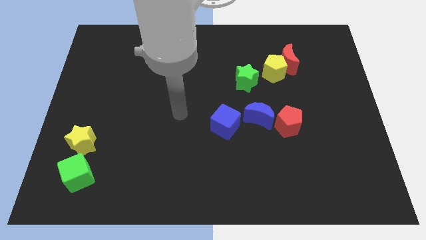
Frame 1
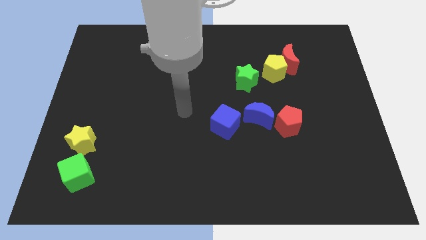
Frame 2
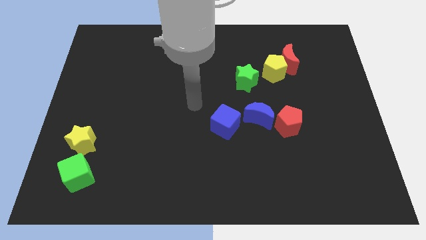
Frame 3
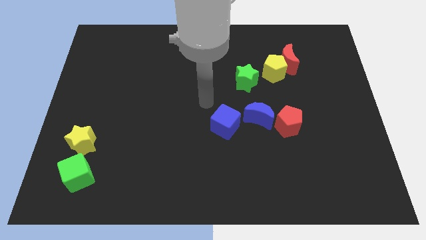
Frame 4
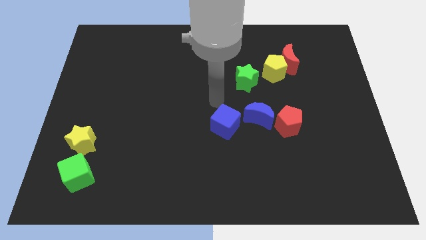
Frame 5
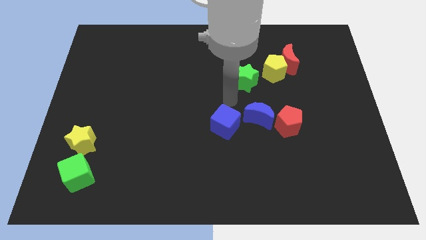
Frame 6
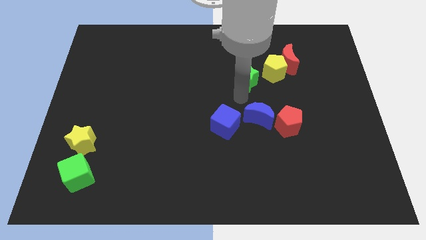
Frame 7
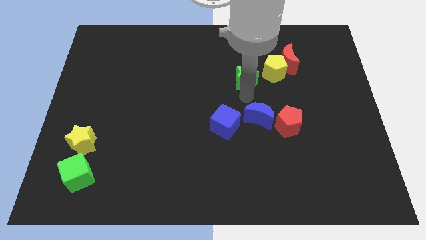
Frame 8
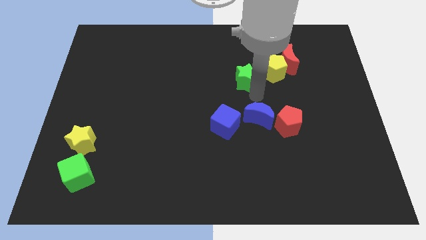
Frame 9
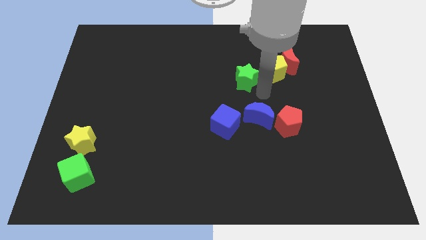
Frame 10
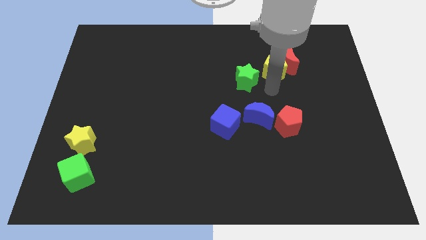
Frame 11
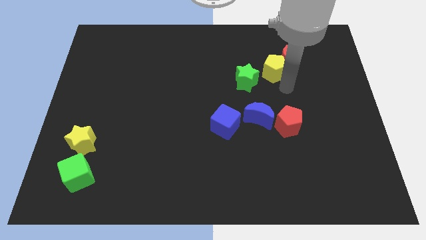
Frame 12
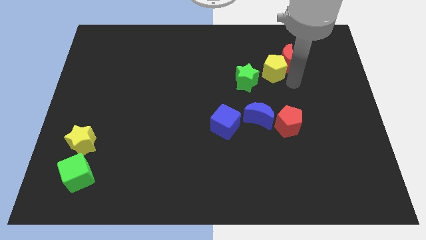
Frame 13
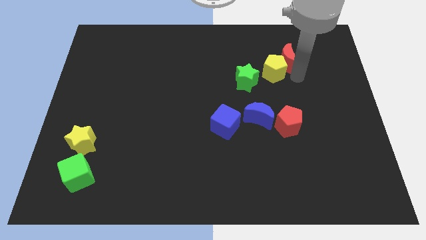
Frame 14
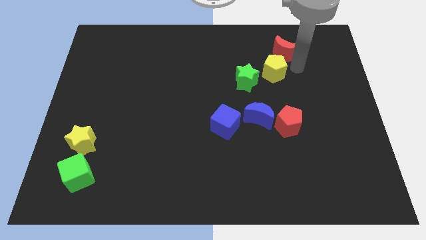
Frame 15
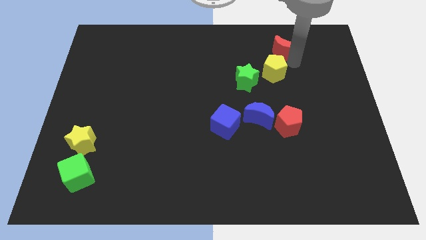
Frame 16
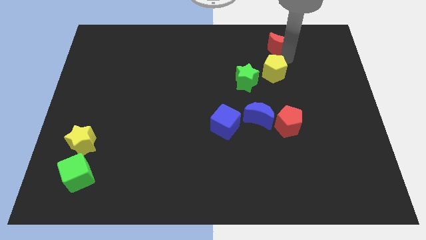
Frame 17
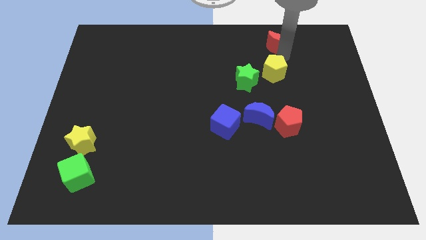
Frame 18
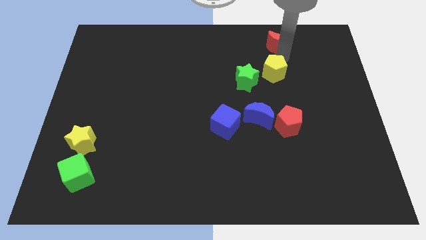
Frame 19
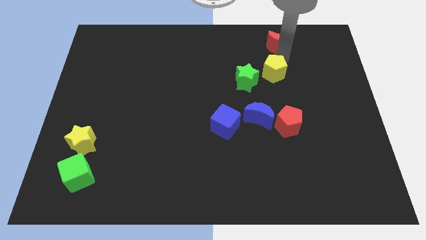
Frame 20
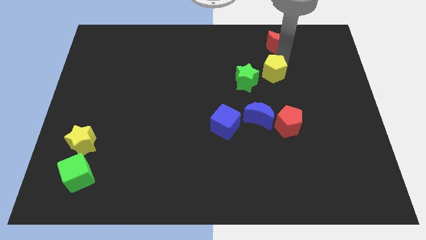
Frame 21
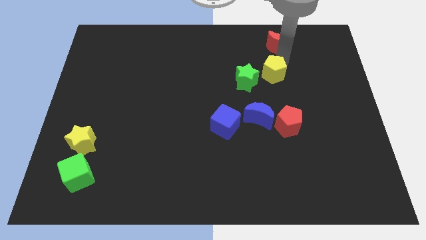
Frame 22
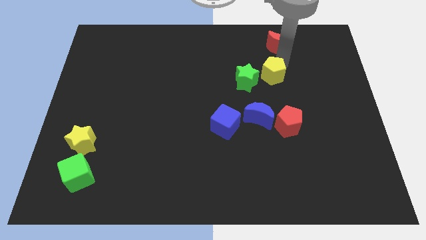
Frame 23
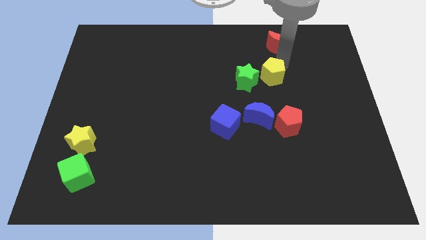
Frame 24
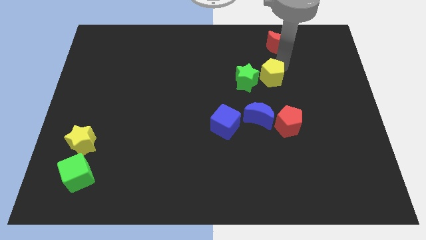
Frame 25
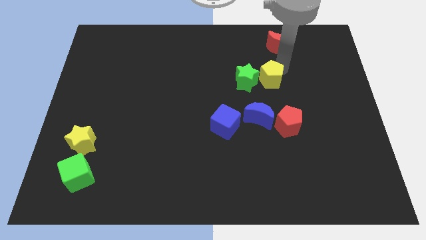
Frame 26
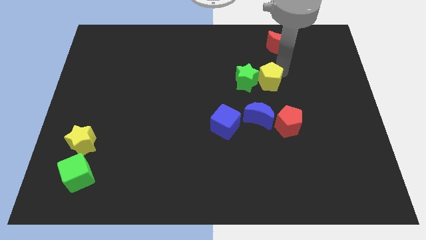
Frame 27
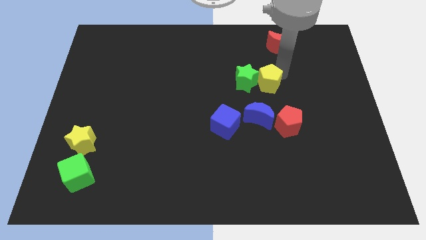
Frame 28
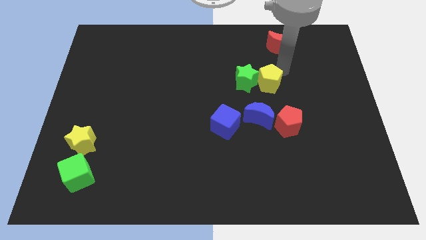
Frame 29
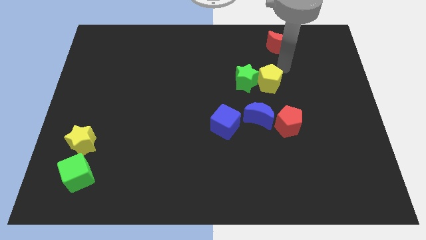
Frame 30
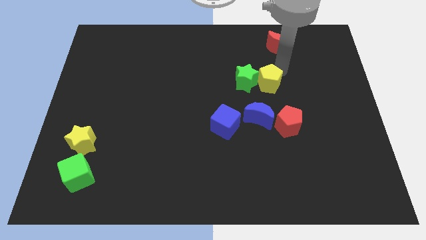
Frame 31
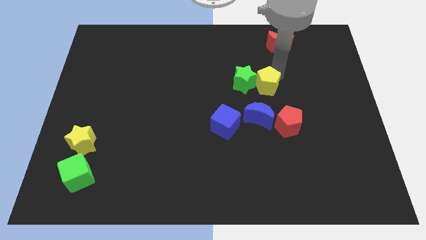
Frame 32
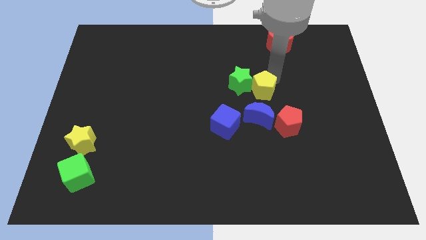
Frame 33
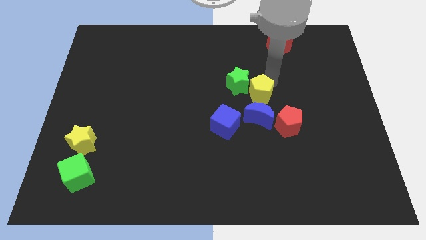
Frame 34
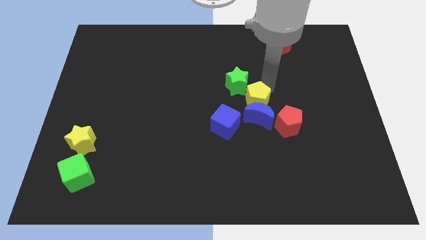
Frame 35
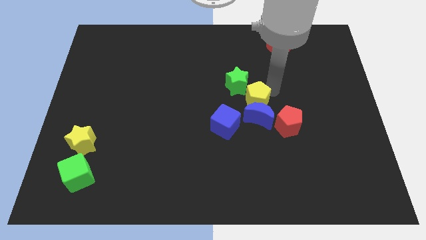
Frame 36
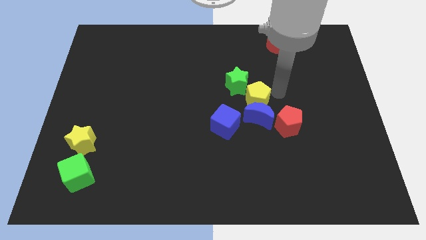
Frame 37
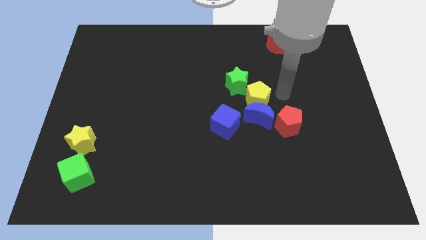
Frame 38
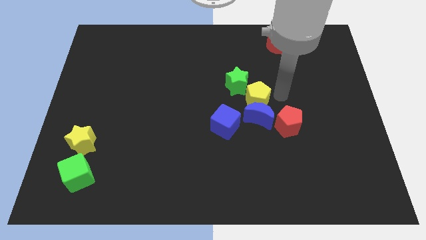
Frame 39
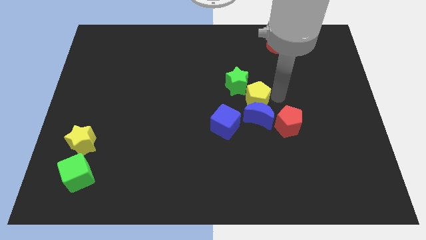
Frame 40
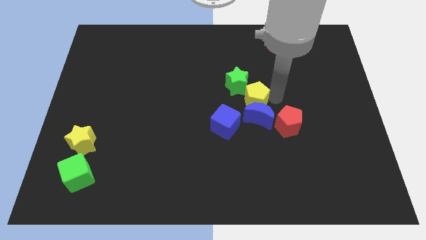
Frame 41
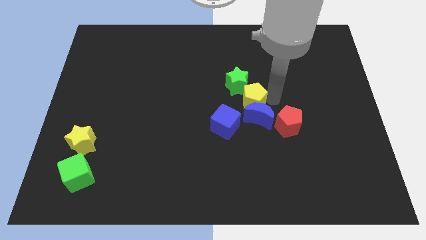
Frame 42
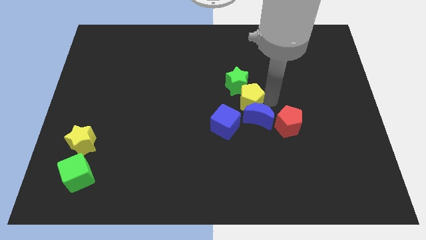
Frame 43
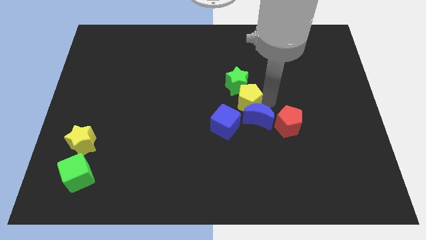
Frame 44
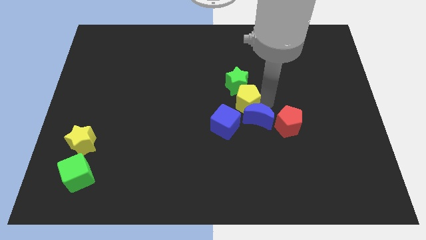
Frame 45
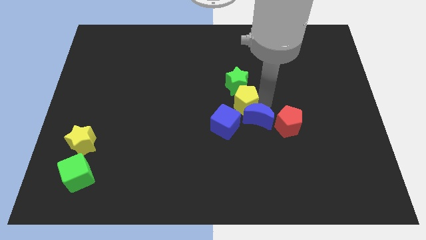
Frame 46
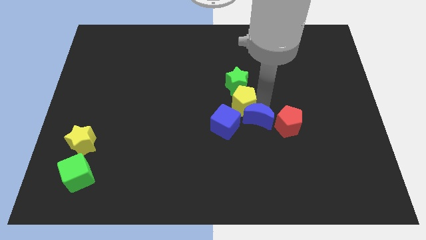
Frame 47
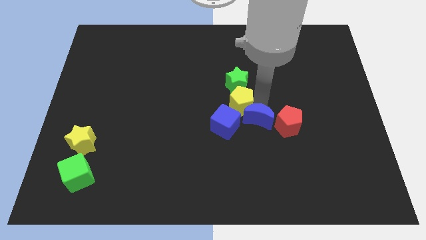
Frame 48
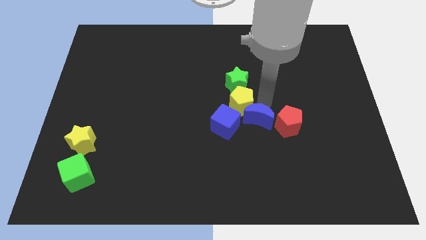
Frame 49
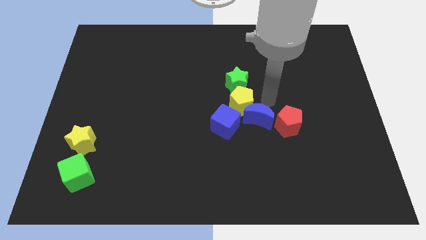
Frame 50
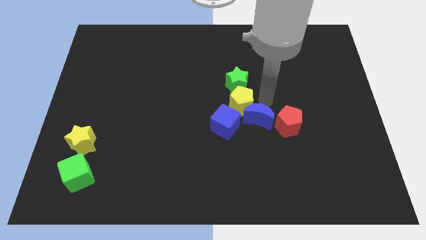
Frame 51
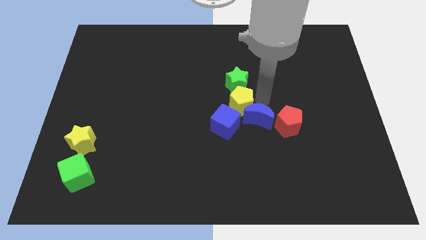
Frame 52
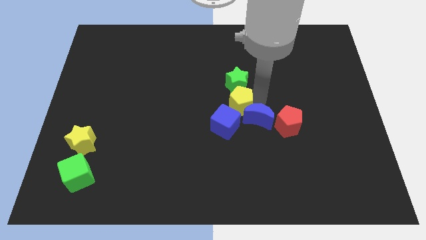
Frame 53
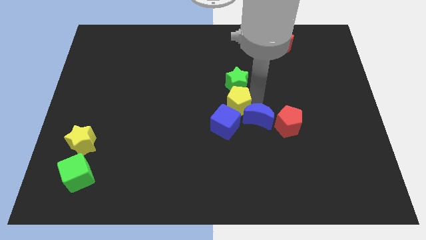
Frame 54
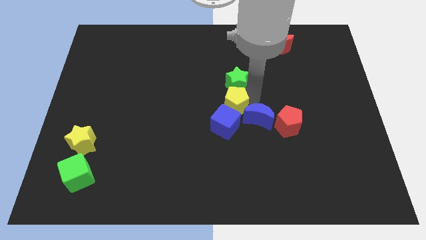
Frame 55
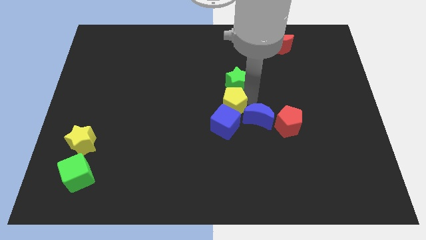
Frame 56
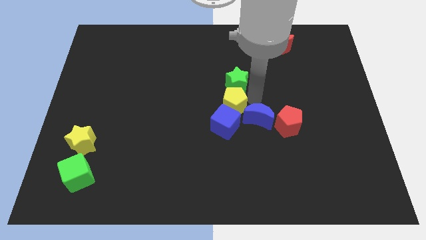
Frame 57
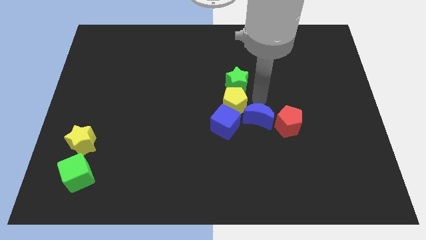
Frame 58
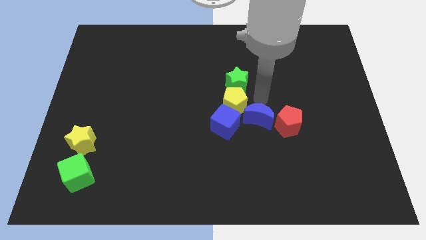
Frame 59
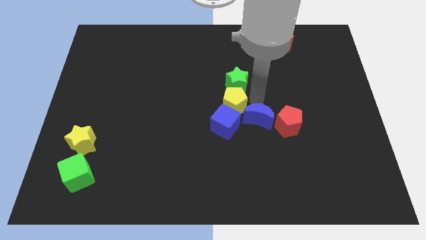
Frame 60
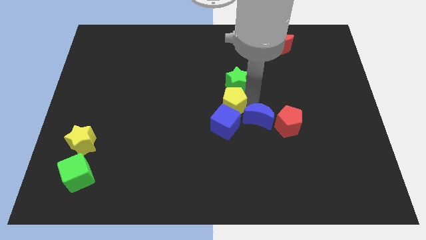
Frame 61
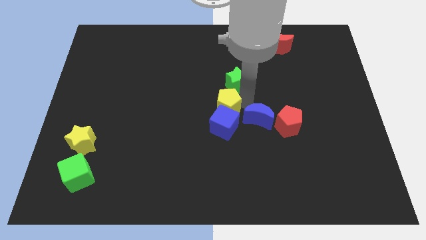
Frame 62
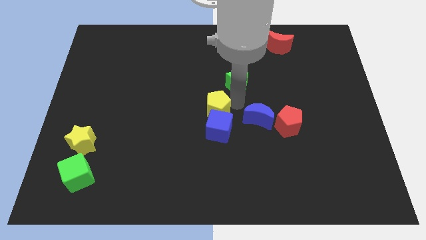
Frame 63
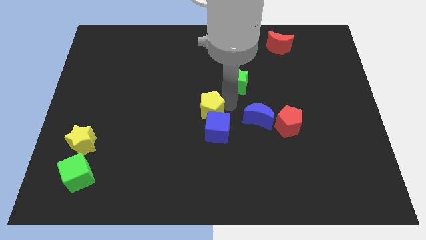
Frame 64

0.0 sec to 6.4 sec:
slide the yellow pentagon down and to the left diagonally

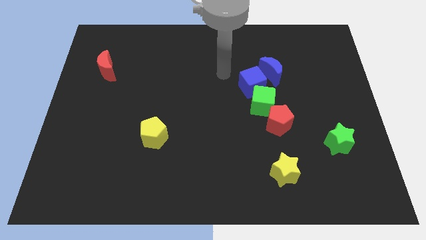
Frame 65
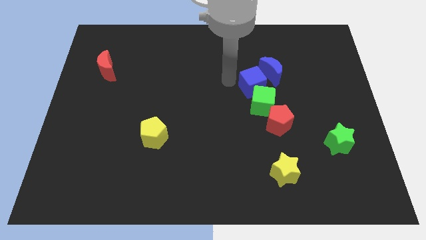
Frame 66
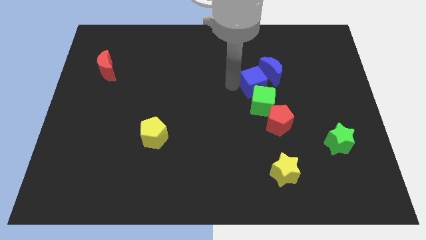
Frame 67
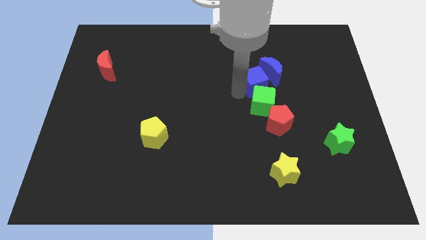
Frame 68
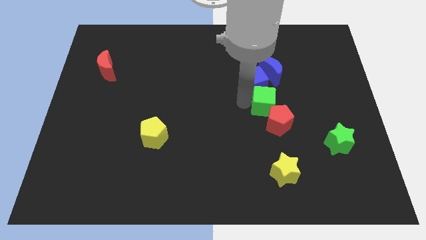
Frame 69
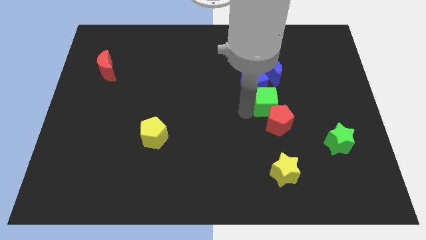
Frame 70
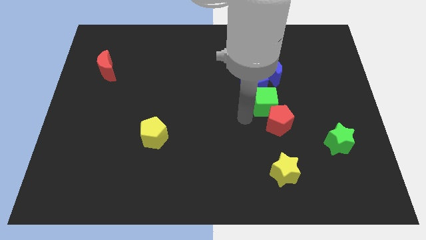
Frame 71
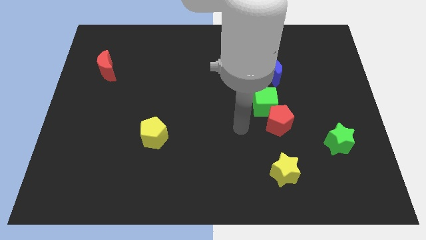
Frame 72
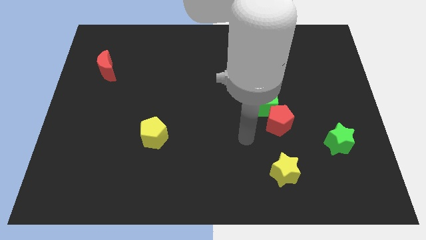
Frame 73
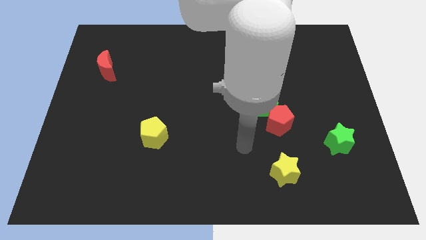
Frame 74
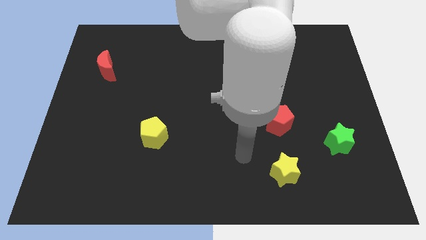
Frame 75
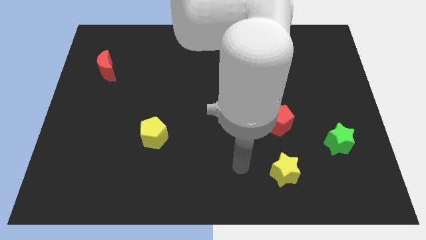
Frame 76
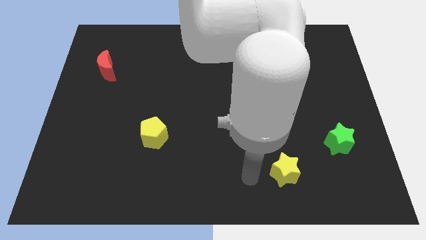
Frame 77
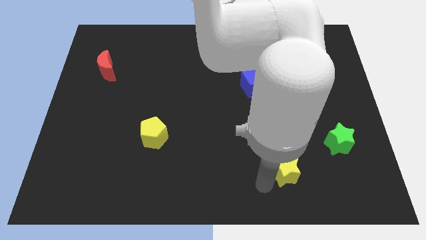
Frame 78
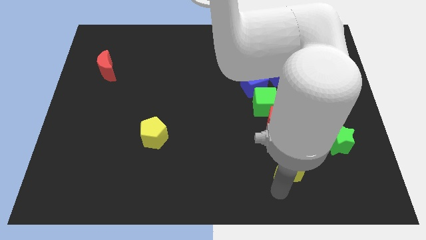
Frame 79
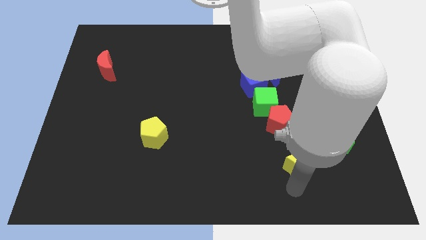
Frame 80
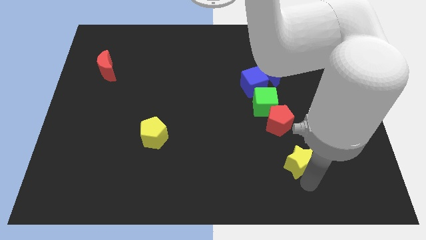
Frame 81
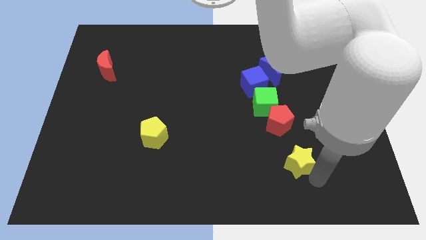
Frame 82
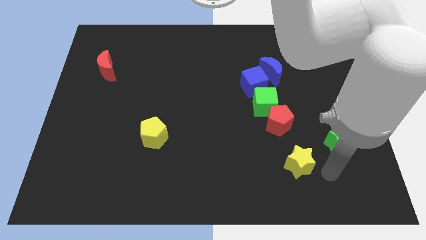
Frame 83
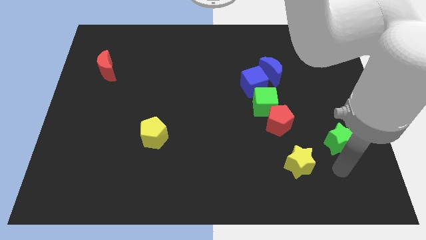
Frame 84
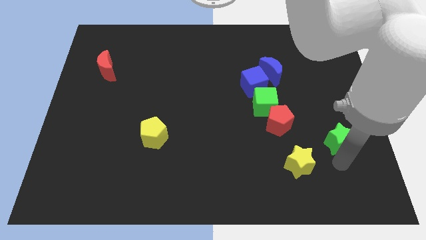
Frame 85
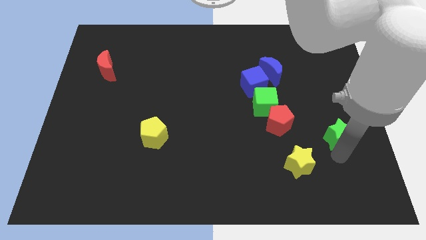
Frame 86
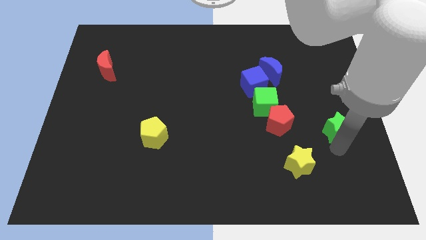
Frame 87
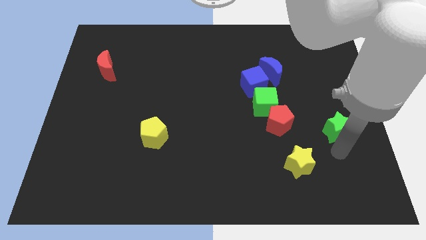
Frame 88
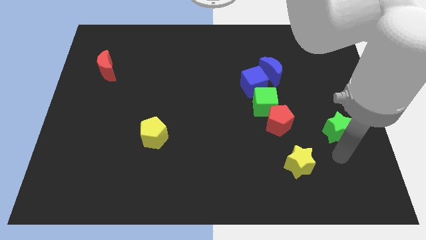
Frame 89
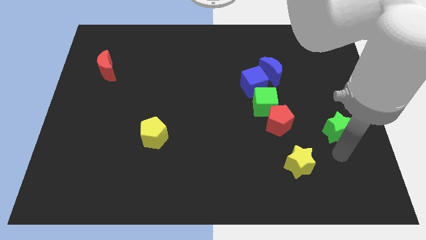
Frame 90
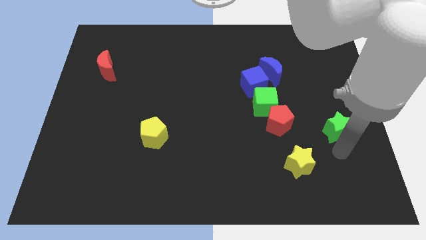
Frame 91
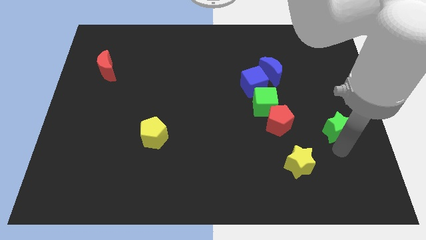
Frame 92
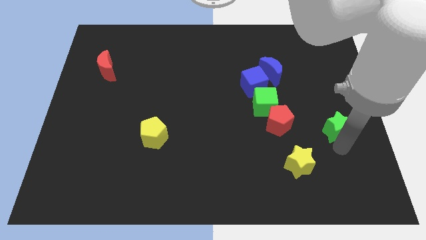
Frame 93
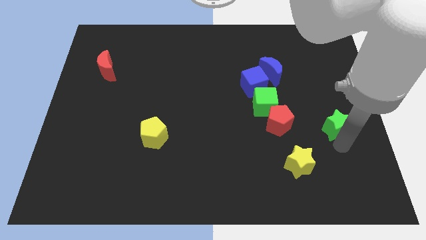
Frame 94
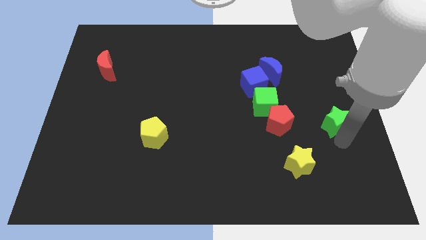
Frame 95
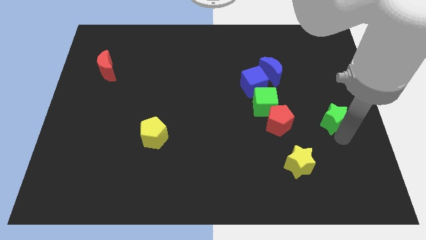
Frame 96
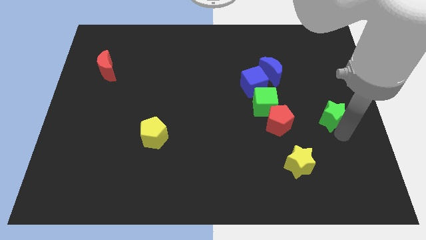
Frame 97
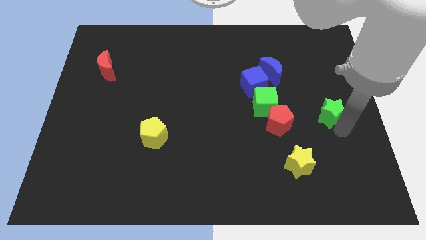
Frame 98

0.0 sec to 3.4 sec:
slightly move the green star upwards
